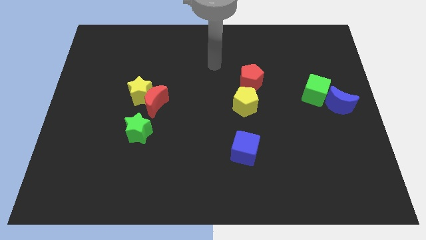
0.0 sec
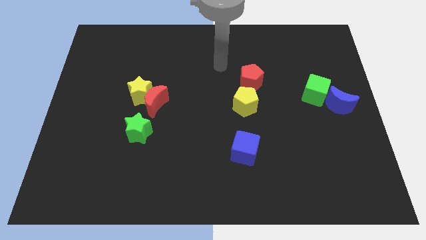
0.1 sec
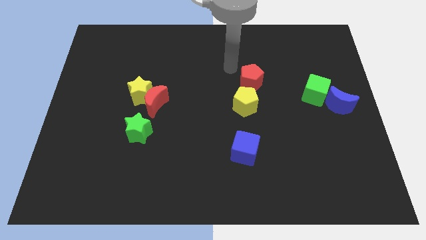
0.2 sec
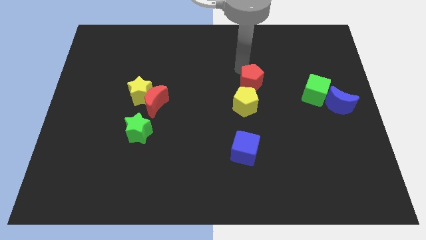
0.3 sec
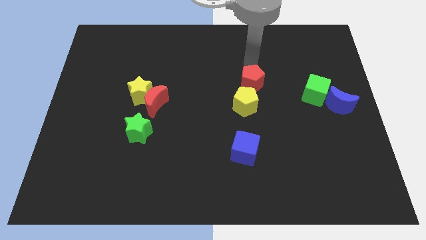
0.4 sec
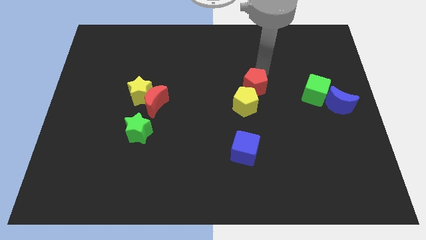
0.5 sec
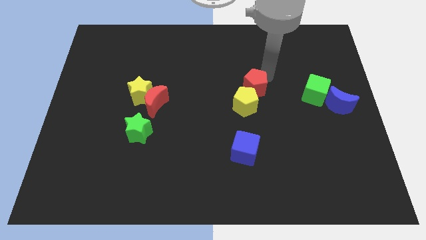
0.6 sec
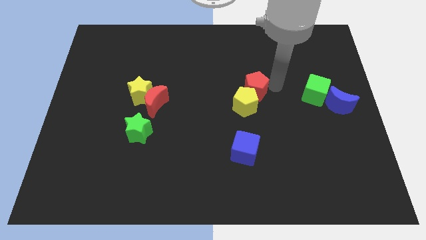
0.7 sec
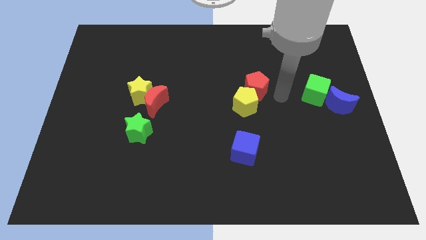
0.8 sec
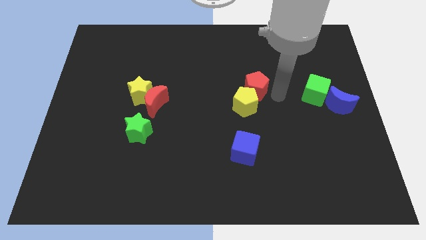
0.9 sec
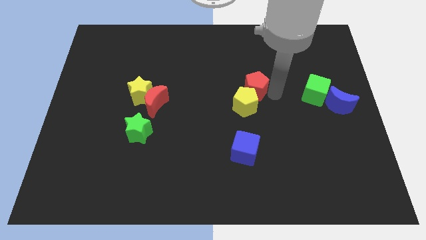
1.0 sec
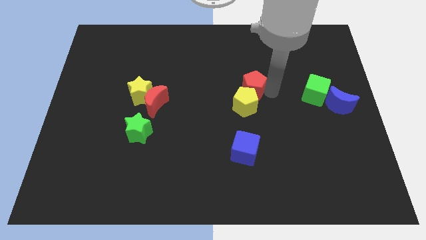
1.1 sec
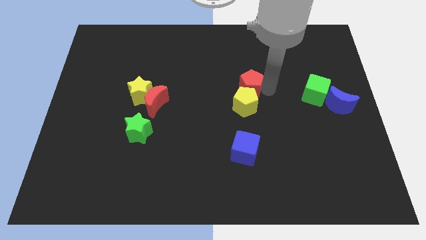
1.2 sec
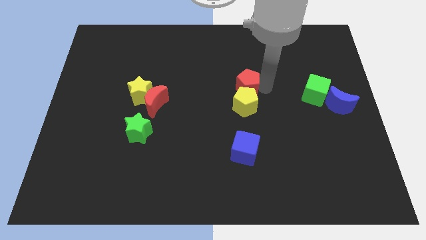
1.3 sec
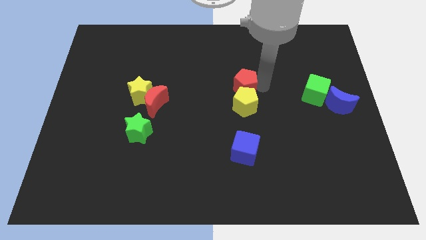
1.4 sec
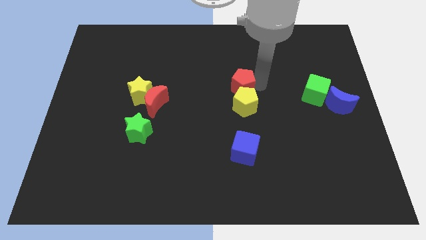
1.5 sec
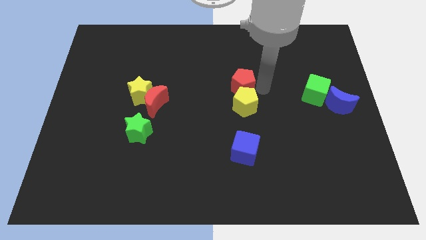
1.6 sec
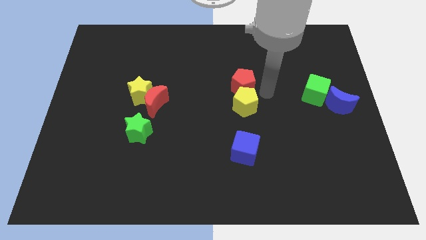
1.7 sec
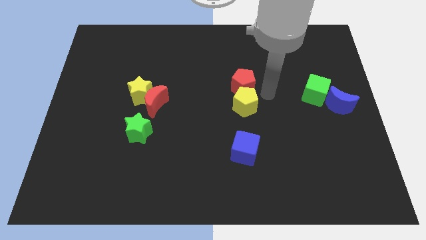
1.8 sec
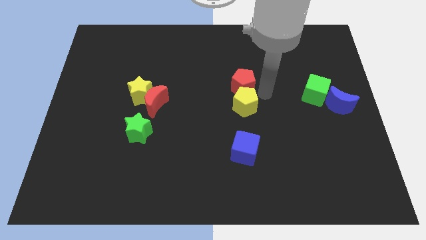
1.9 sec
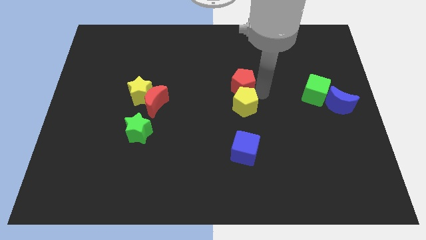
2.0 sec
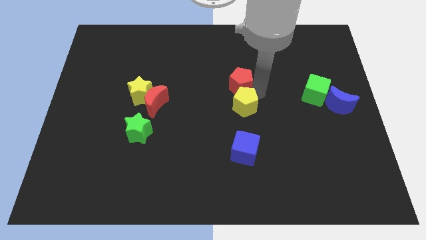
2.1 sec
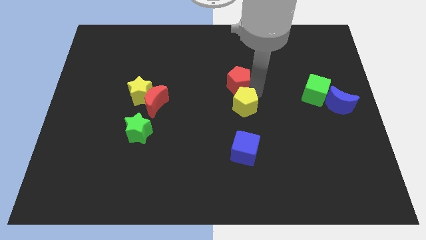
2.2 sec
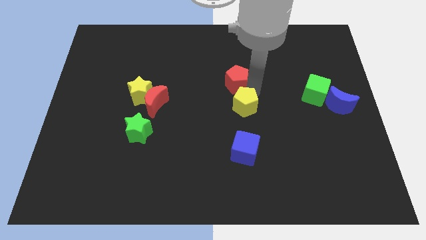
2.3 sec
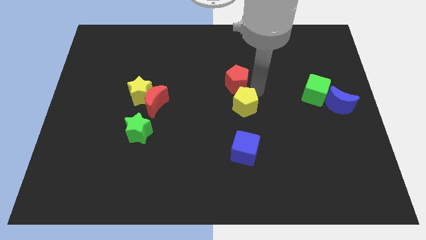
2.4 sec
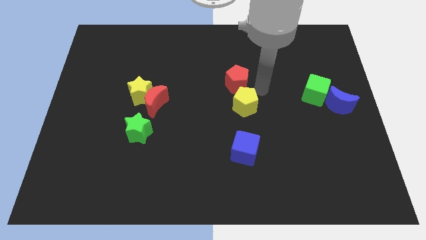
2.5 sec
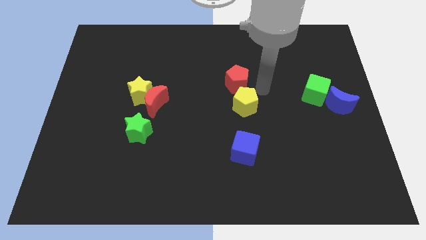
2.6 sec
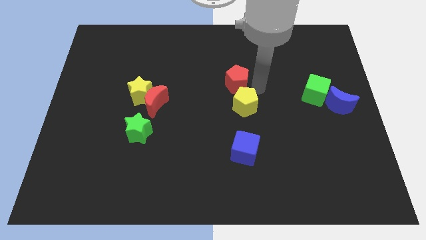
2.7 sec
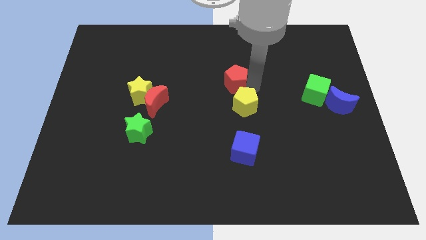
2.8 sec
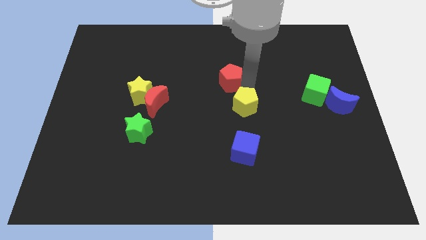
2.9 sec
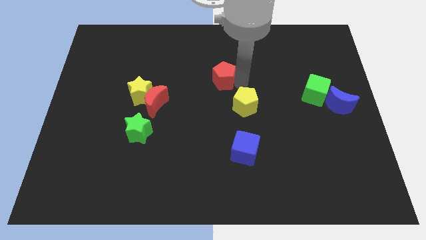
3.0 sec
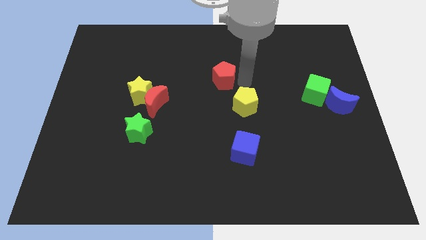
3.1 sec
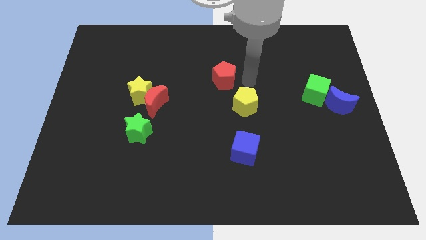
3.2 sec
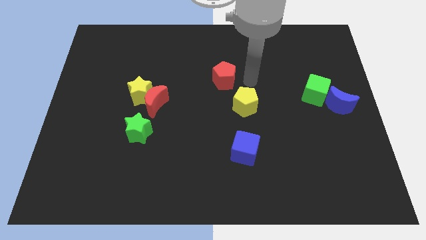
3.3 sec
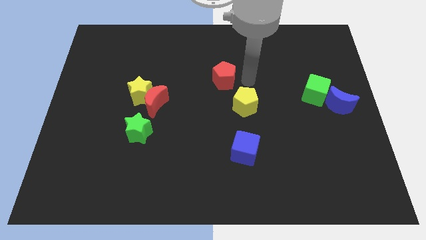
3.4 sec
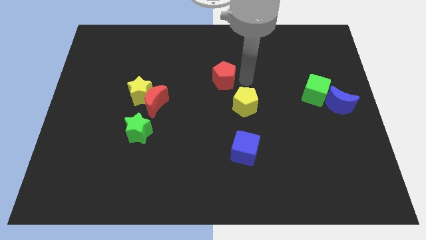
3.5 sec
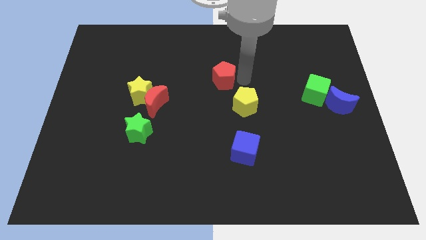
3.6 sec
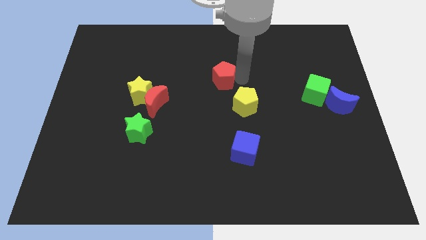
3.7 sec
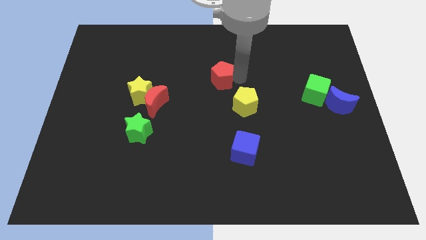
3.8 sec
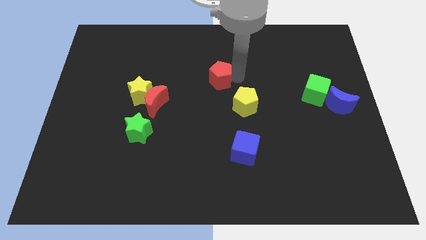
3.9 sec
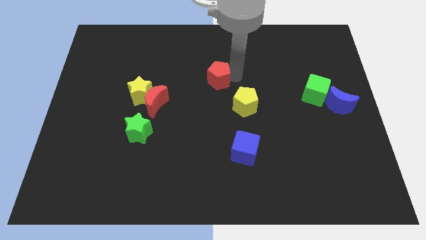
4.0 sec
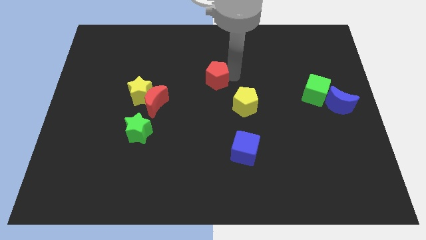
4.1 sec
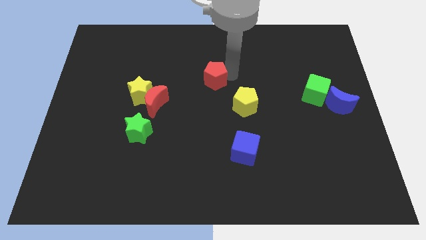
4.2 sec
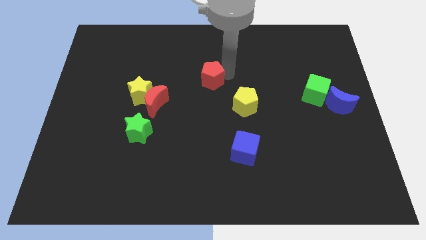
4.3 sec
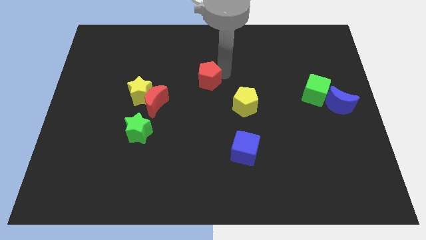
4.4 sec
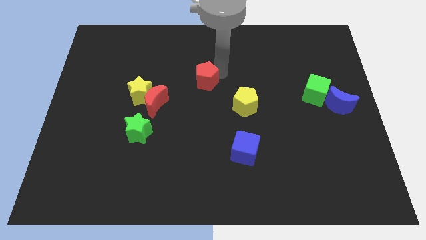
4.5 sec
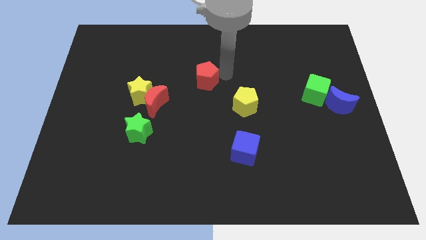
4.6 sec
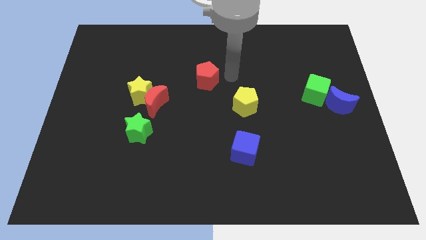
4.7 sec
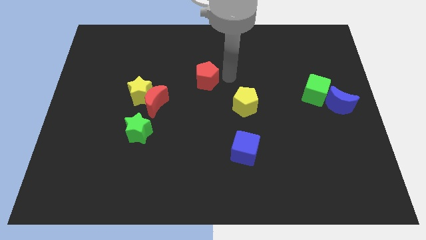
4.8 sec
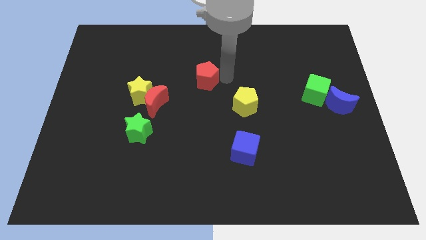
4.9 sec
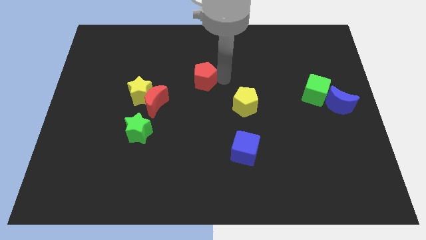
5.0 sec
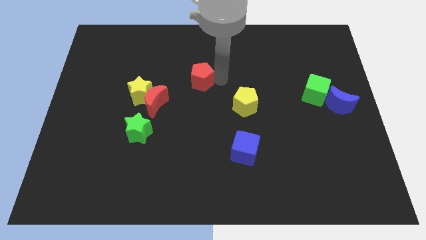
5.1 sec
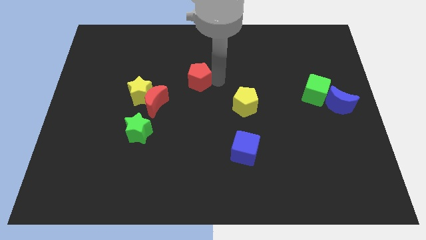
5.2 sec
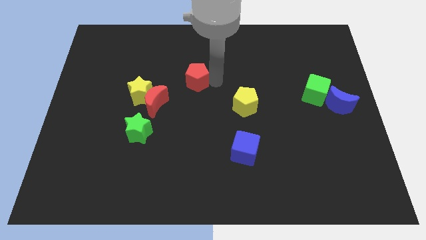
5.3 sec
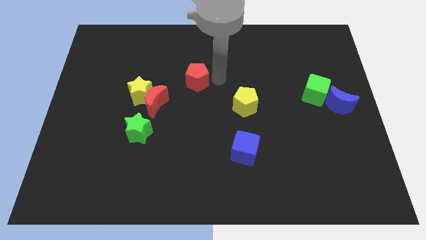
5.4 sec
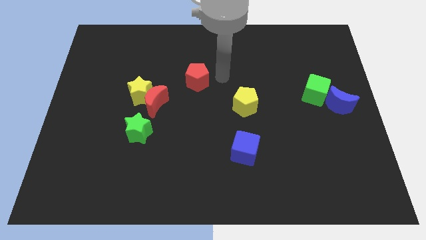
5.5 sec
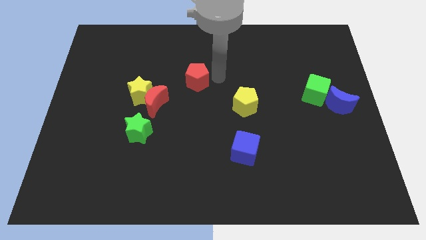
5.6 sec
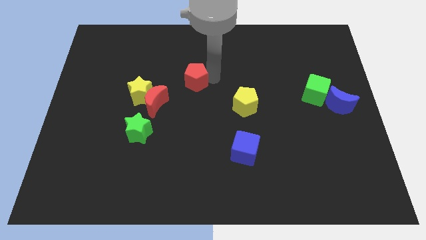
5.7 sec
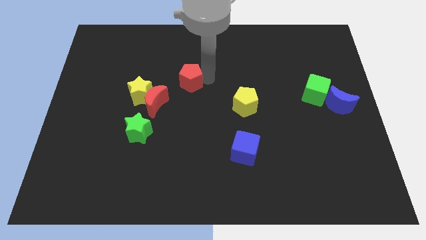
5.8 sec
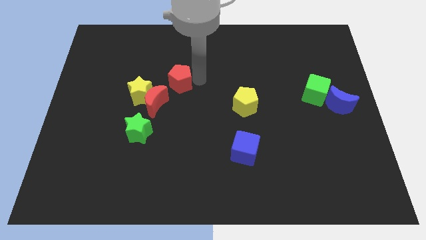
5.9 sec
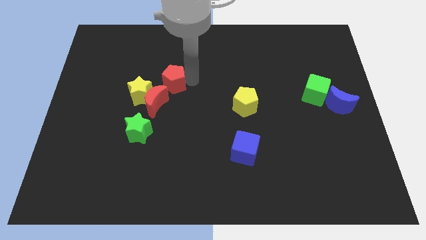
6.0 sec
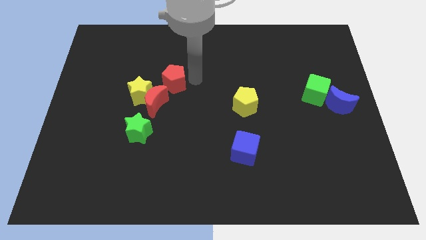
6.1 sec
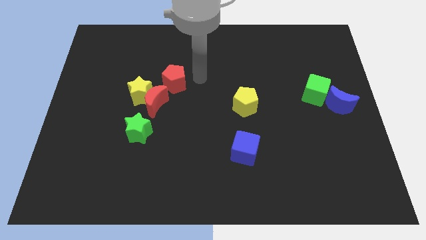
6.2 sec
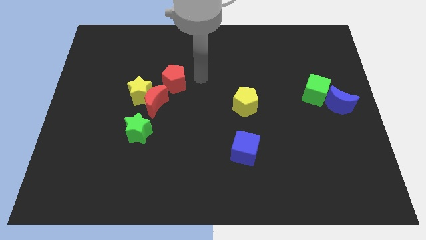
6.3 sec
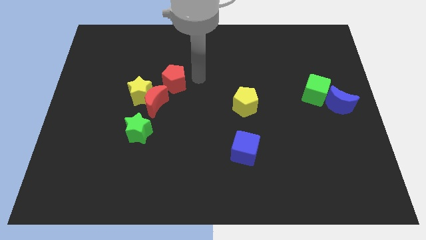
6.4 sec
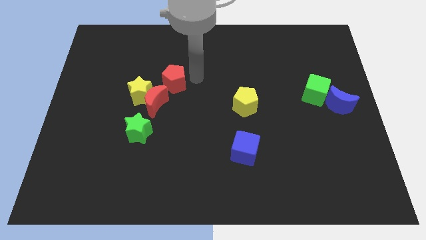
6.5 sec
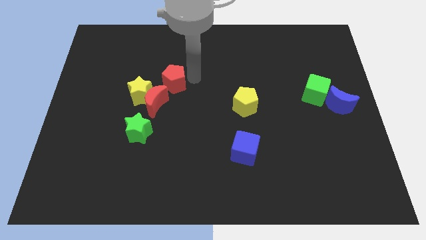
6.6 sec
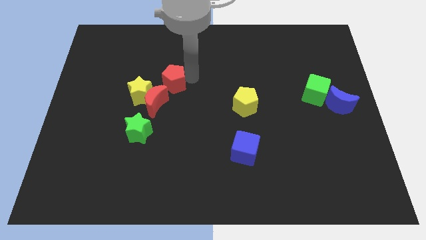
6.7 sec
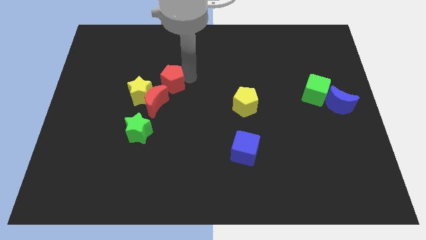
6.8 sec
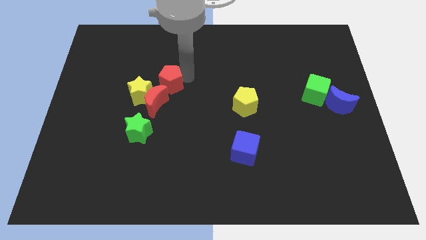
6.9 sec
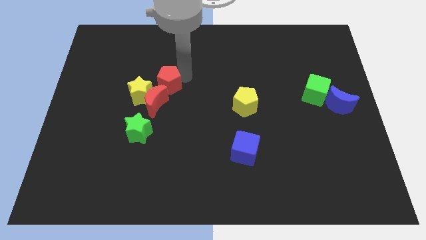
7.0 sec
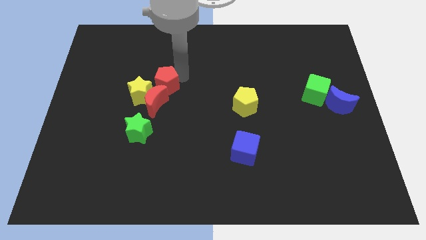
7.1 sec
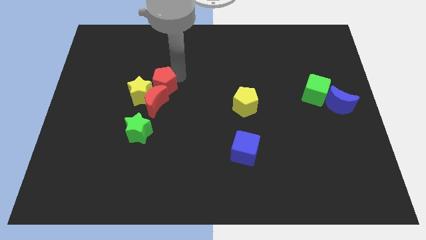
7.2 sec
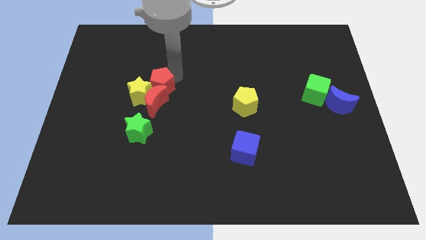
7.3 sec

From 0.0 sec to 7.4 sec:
move the red pentagon close to the yellow star
